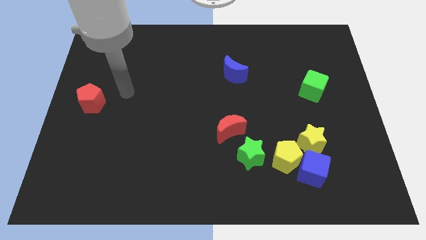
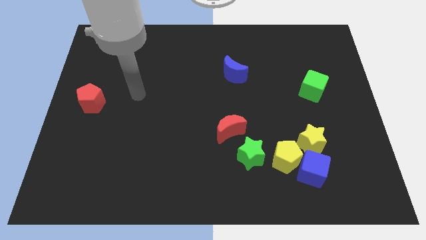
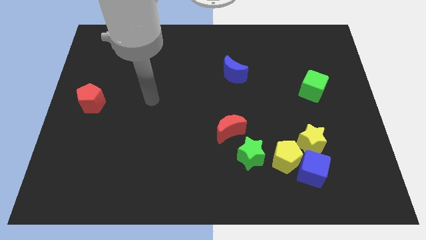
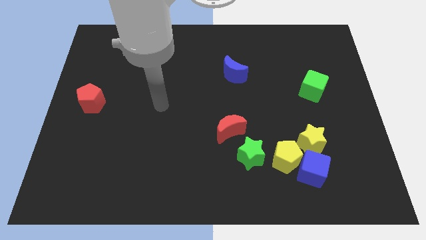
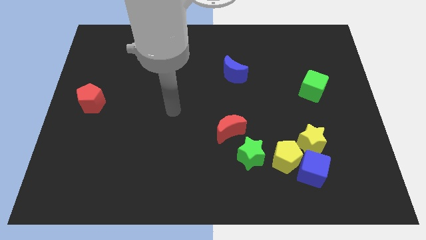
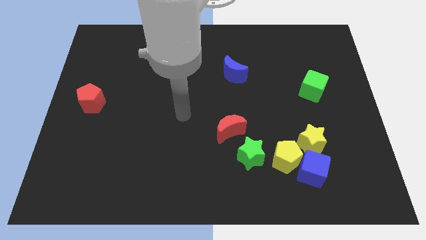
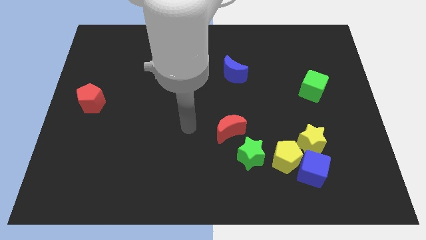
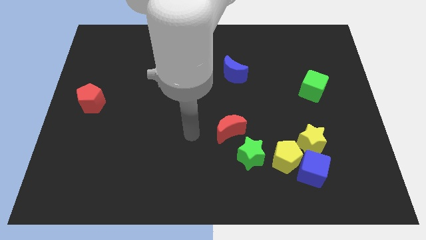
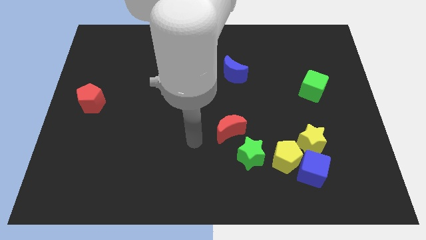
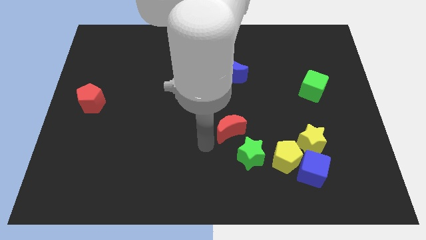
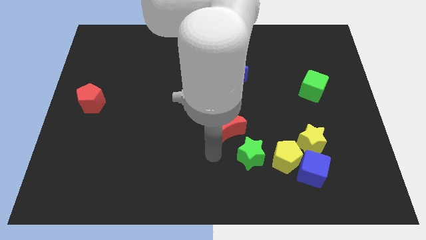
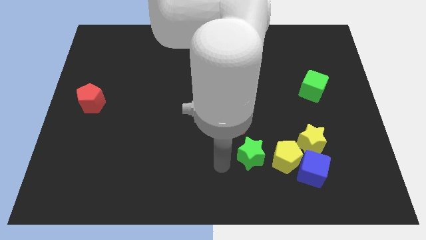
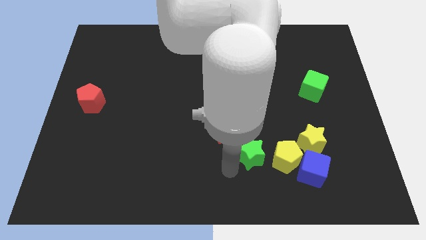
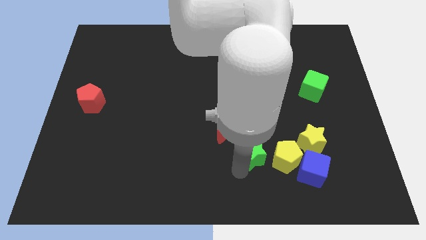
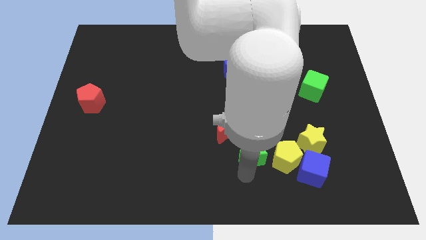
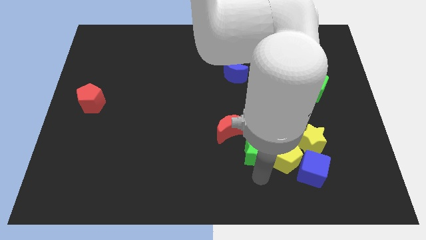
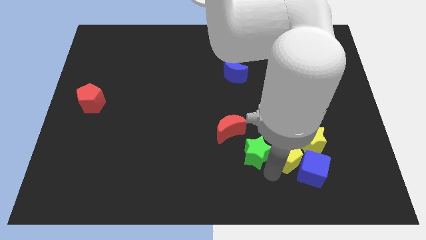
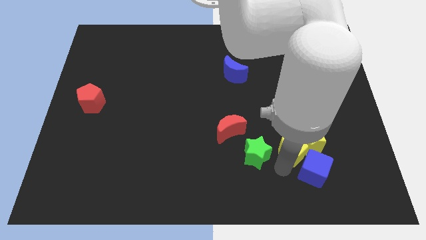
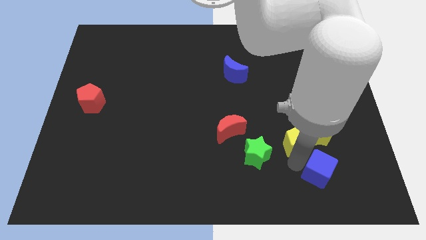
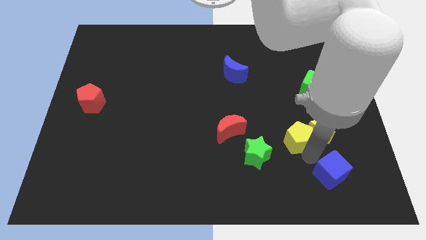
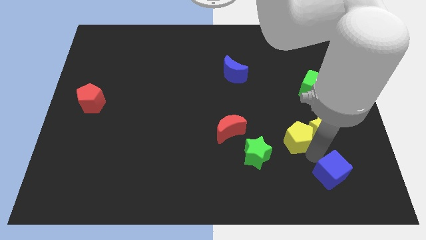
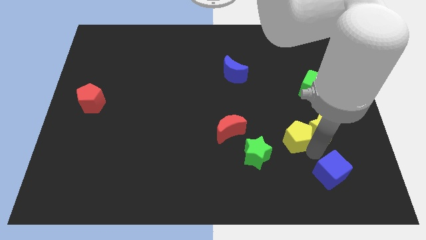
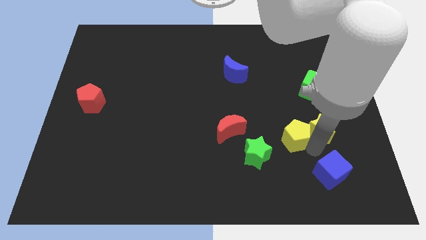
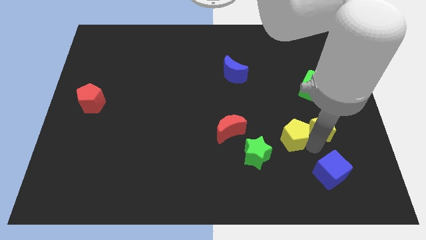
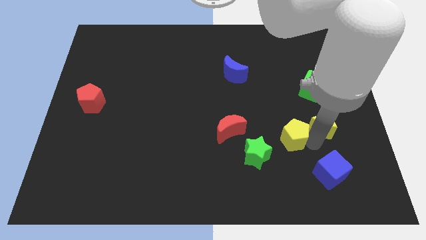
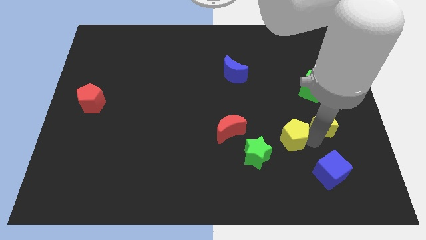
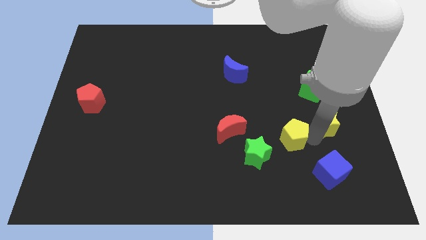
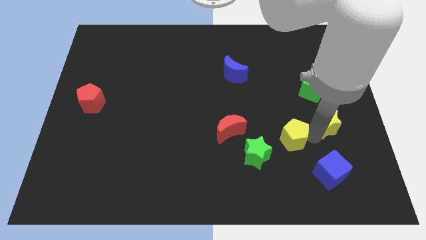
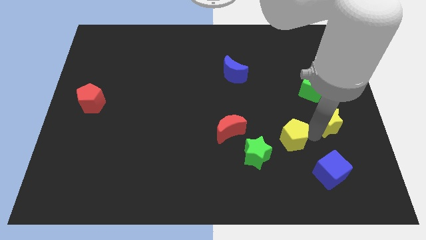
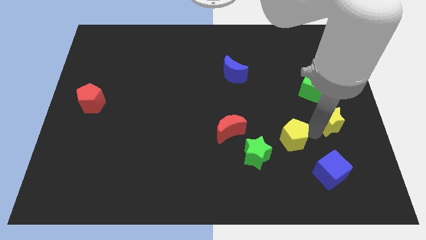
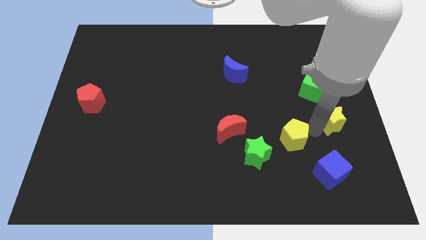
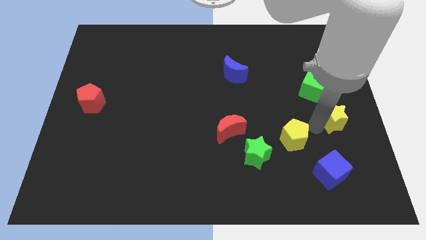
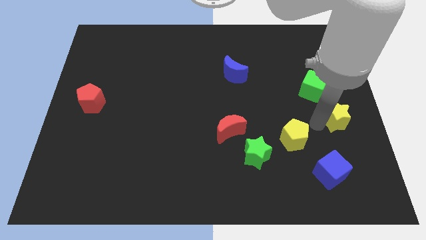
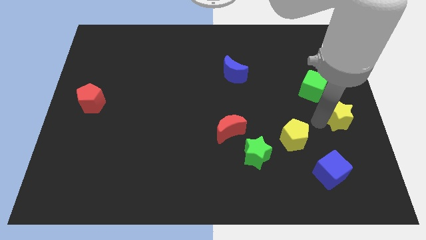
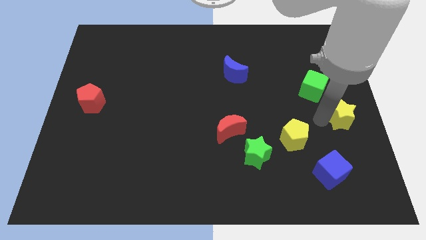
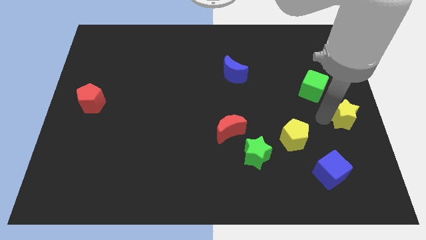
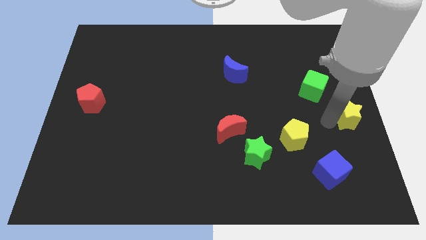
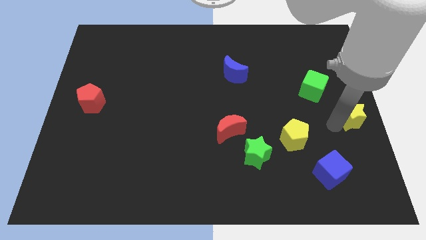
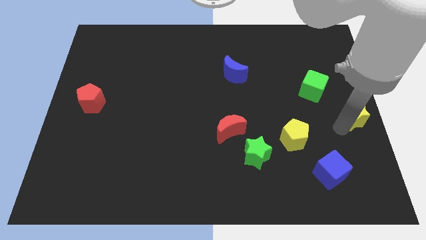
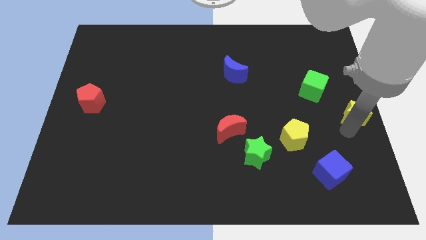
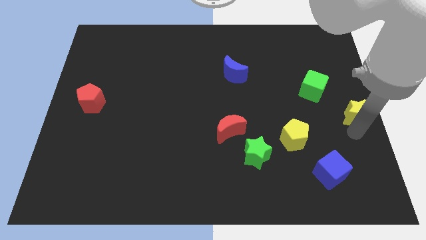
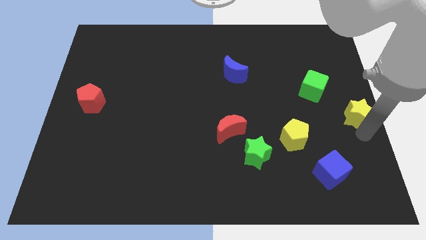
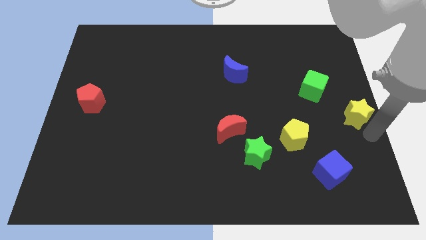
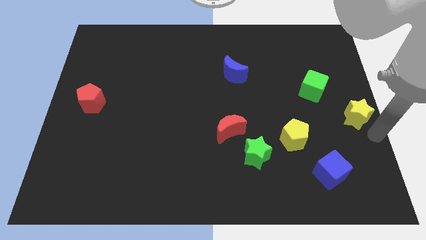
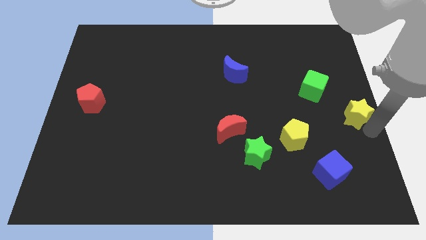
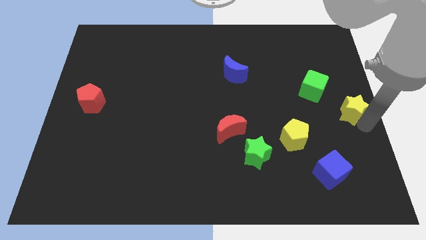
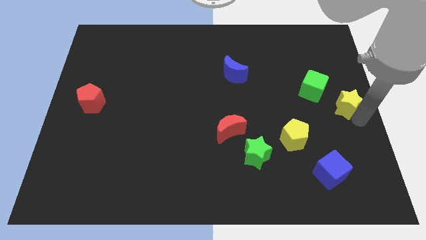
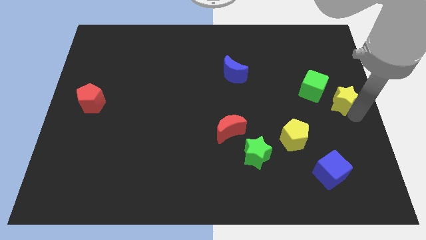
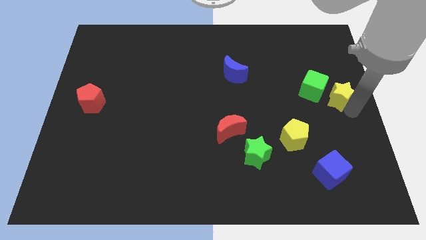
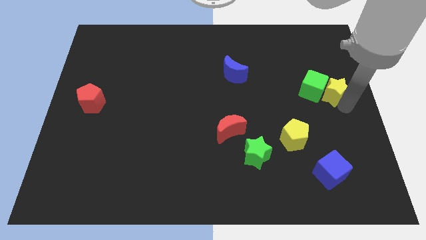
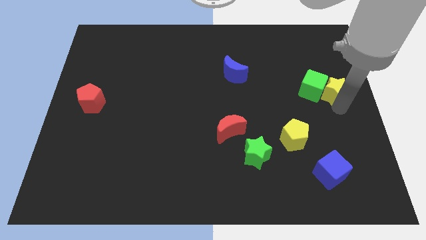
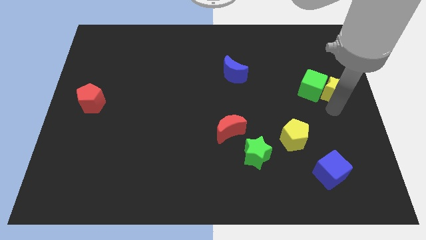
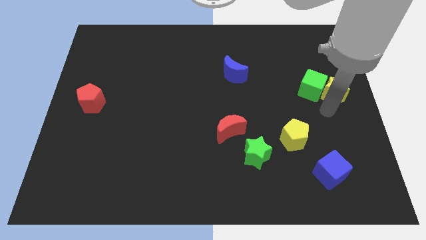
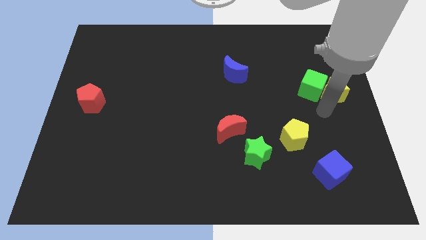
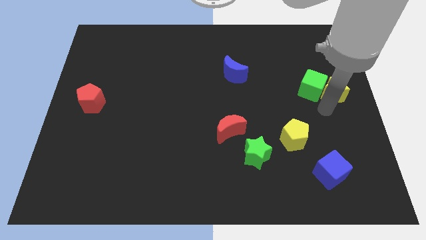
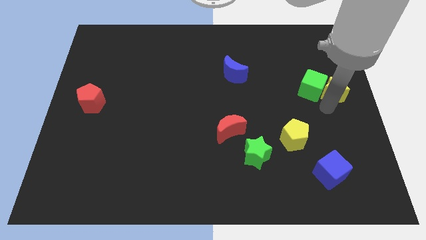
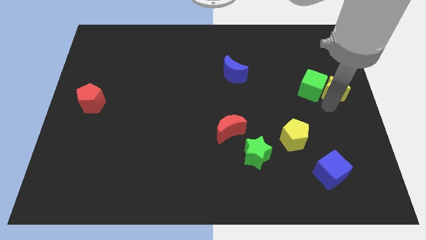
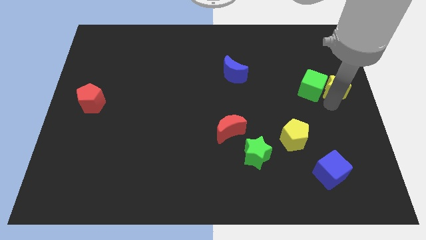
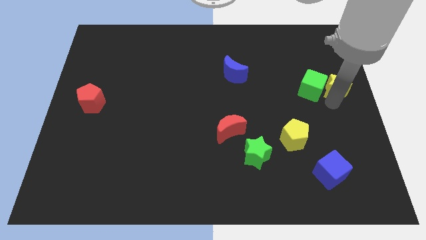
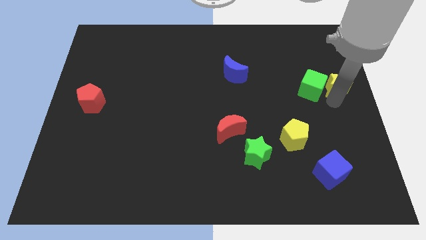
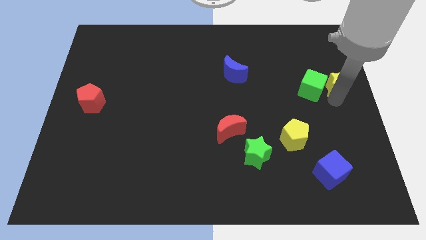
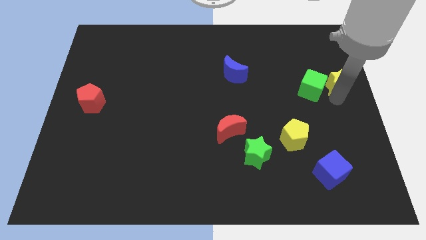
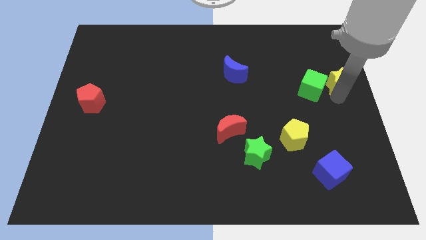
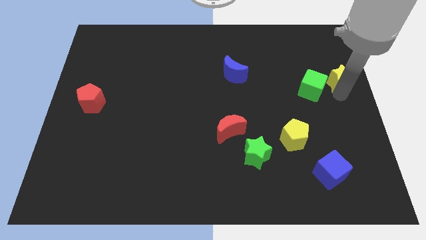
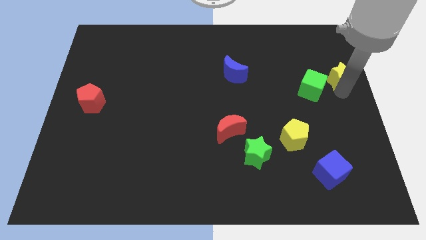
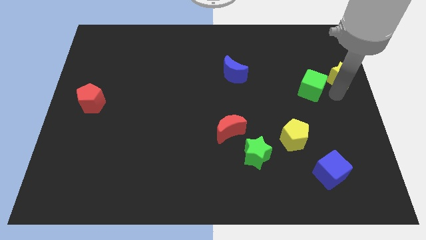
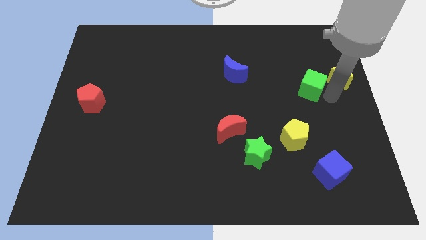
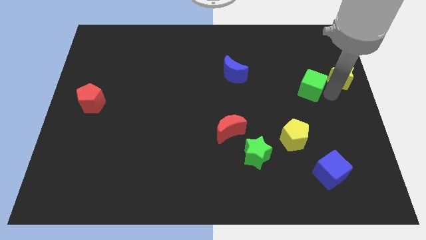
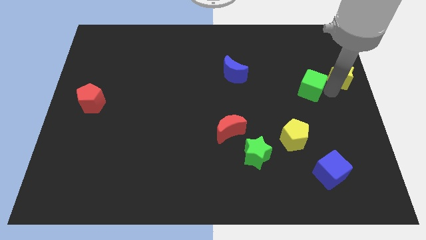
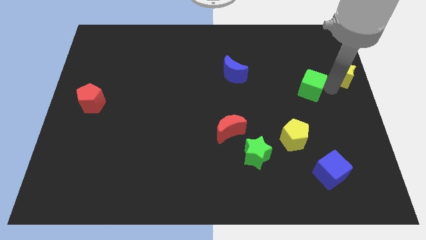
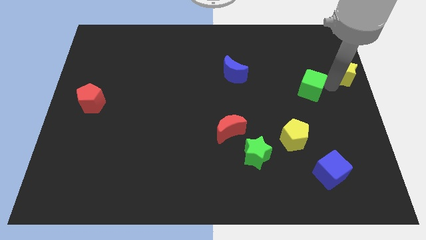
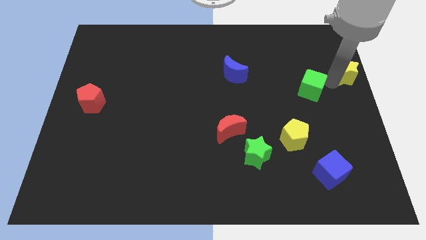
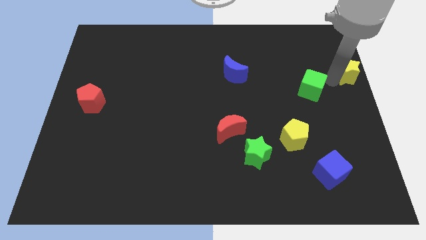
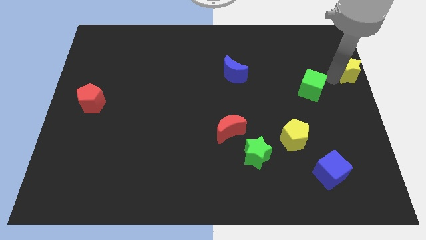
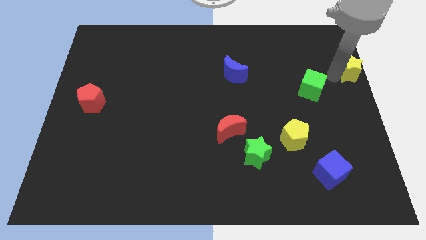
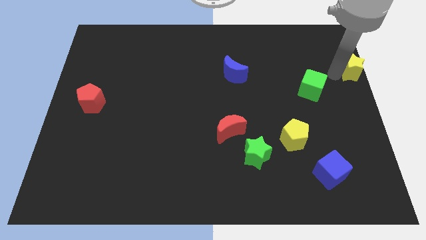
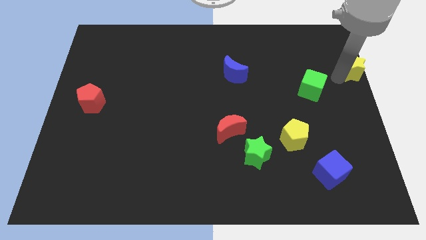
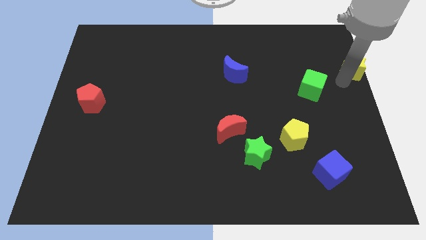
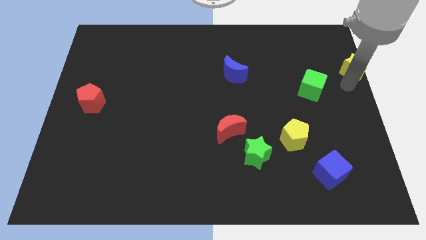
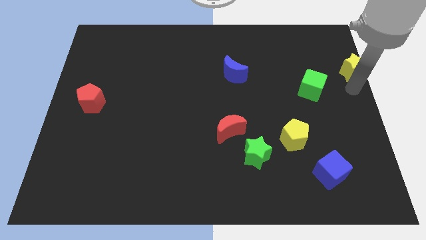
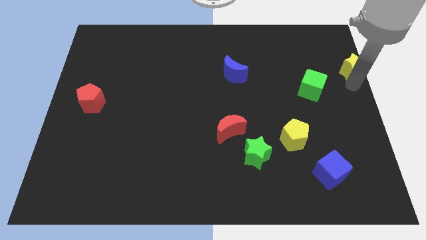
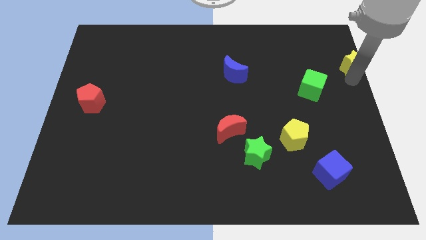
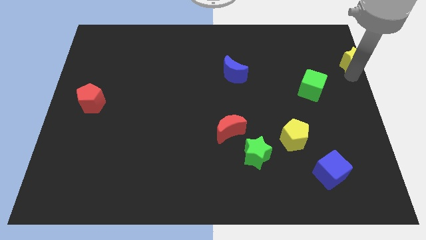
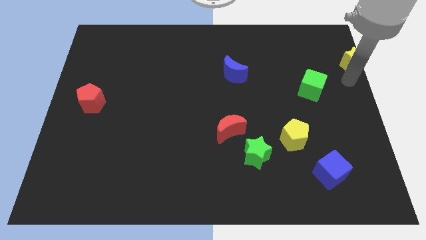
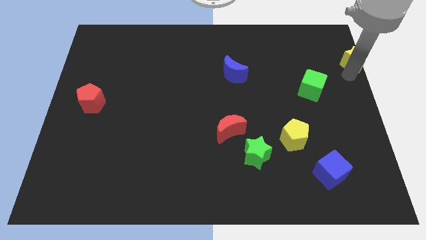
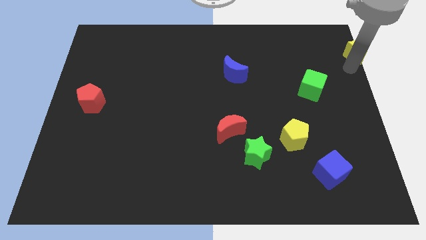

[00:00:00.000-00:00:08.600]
slide the yellow star to the top right corner
